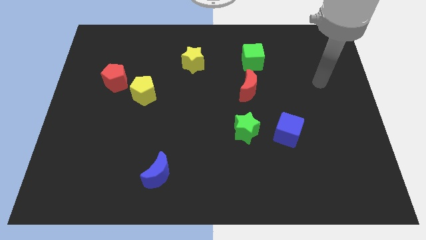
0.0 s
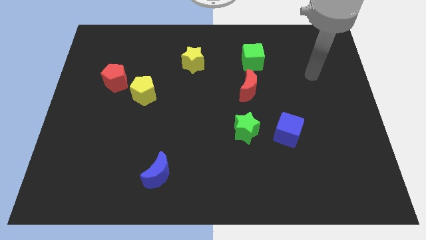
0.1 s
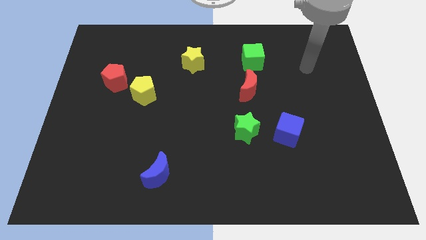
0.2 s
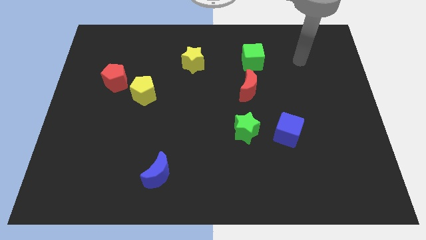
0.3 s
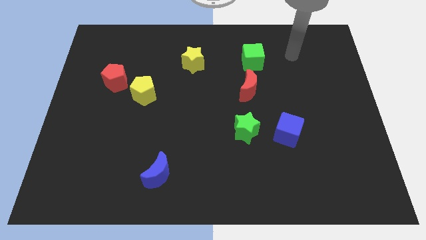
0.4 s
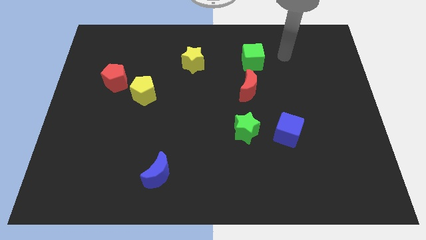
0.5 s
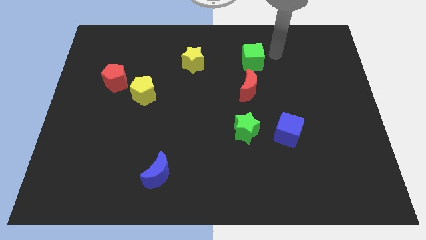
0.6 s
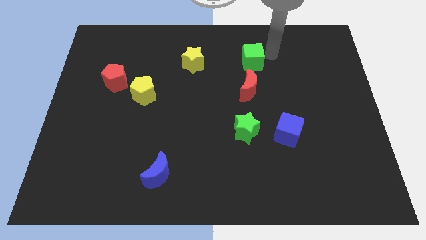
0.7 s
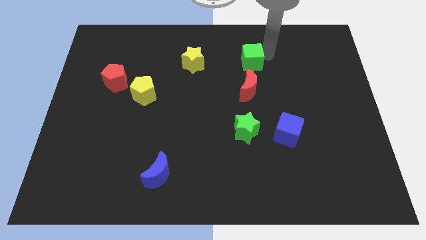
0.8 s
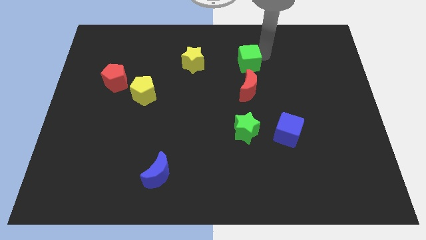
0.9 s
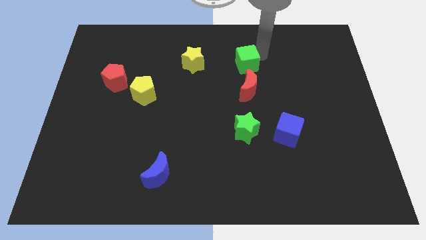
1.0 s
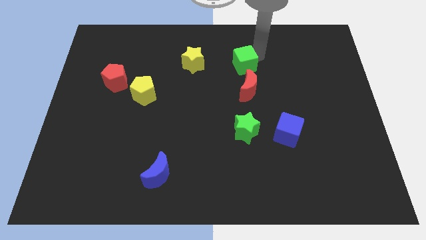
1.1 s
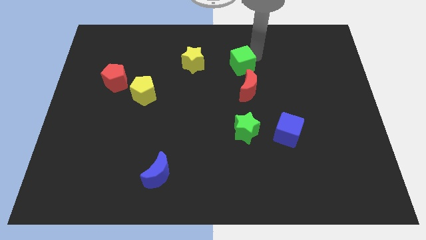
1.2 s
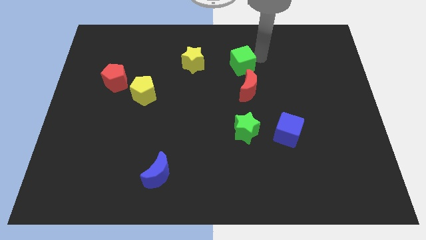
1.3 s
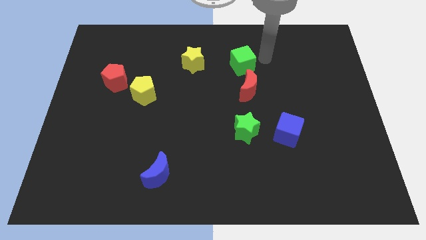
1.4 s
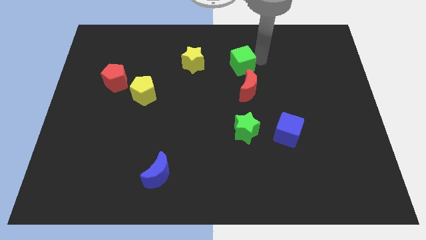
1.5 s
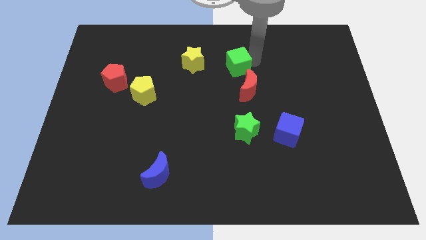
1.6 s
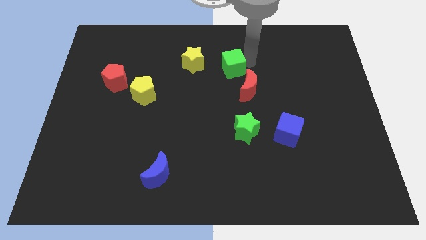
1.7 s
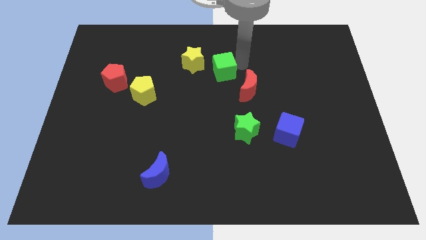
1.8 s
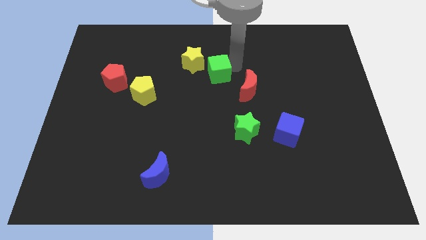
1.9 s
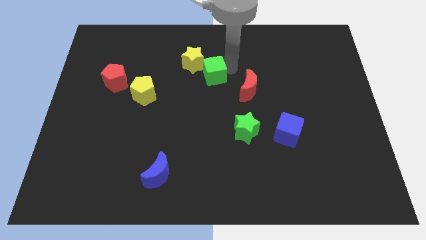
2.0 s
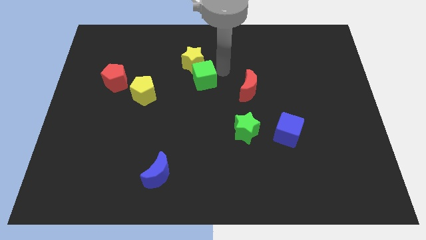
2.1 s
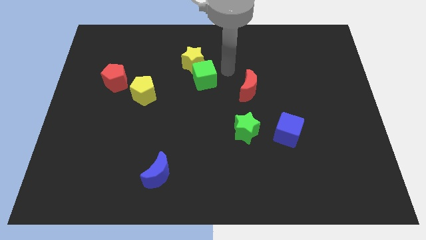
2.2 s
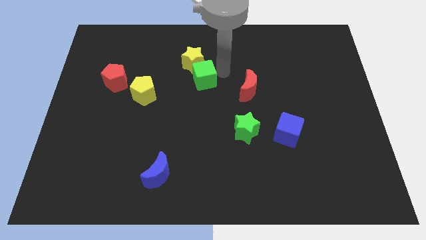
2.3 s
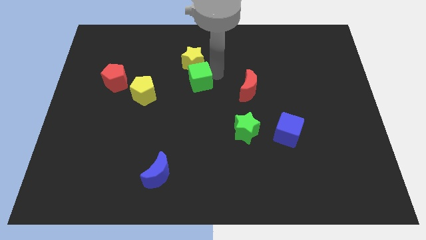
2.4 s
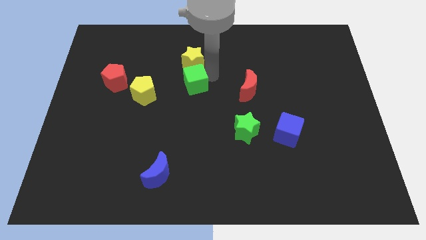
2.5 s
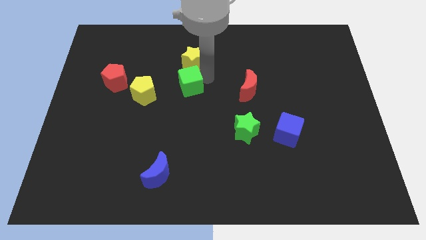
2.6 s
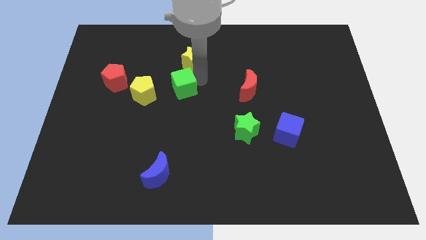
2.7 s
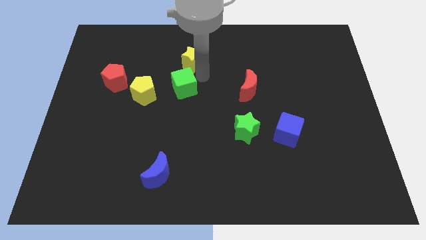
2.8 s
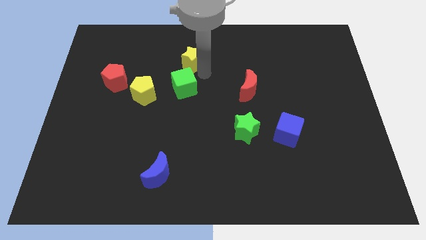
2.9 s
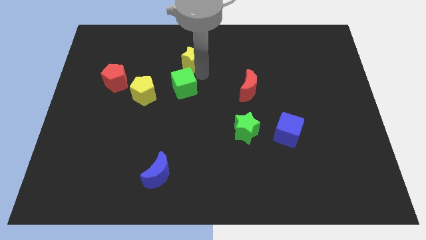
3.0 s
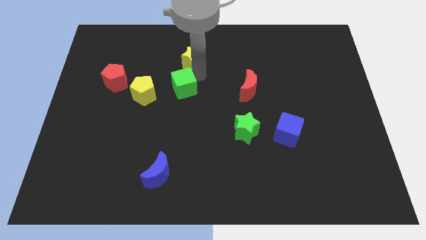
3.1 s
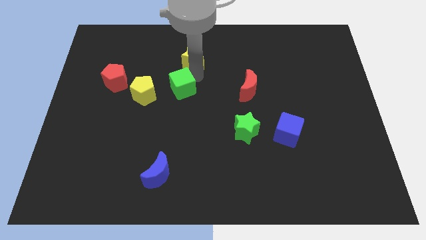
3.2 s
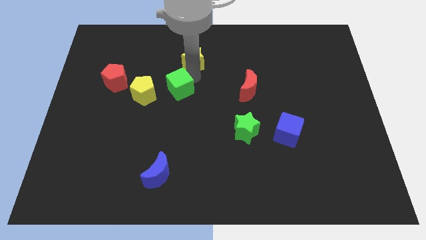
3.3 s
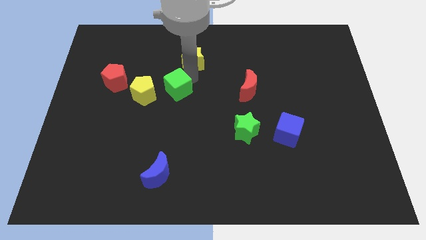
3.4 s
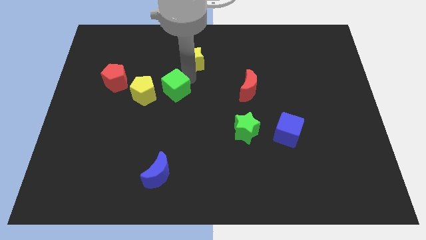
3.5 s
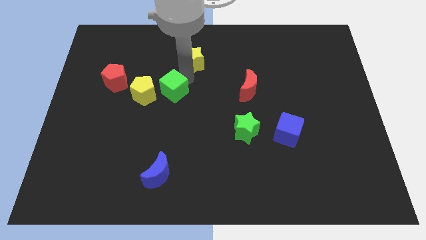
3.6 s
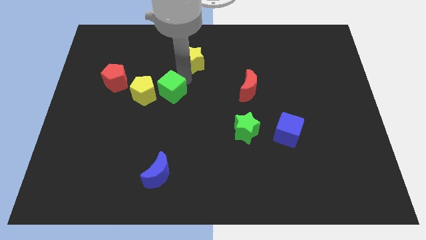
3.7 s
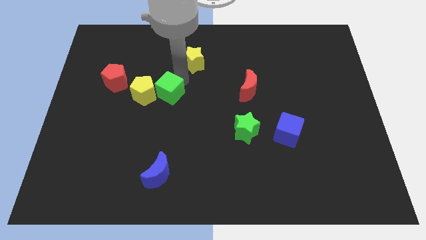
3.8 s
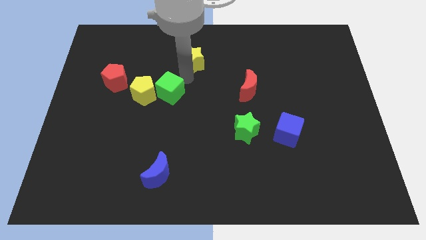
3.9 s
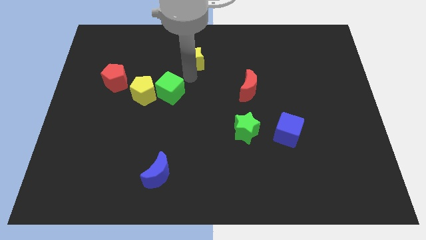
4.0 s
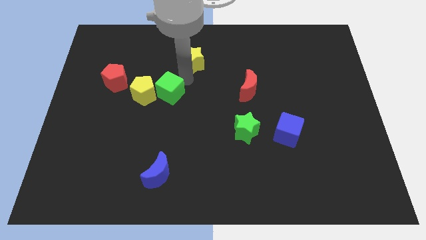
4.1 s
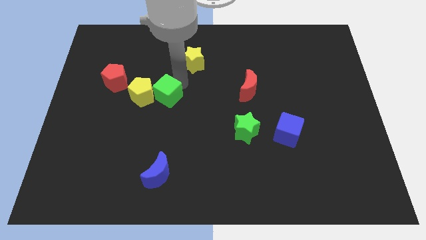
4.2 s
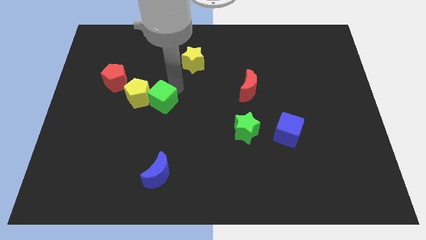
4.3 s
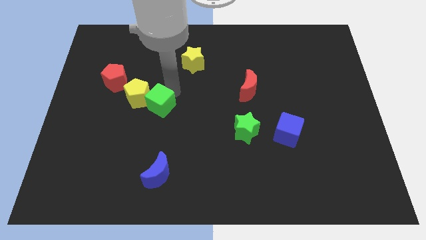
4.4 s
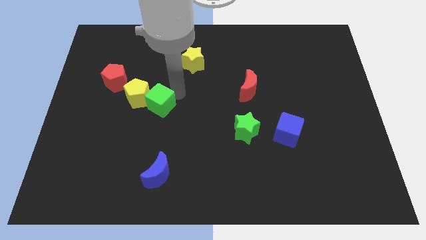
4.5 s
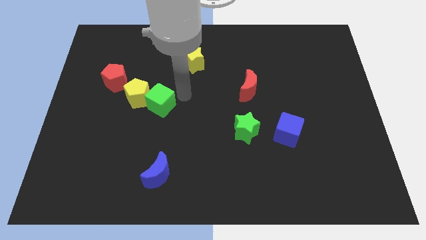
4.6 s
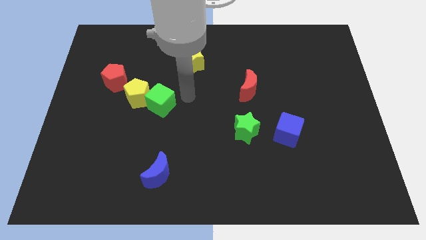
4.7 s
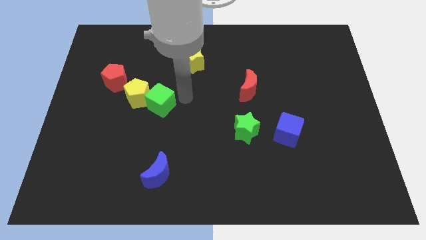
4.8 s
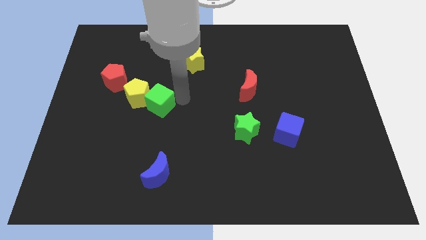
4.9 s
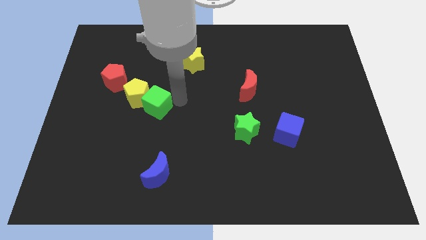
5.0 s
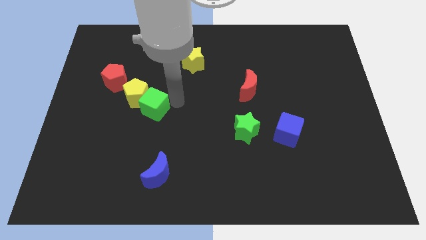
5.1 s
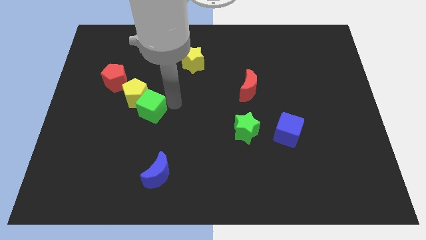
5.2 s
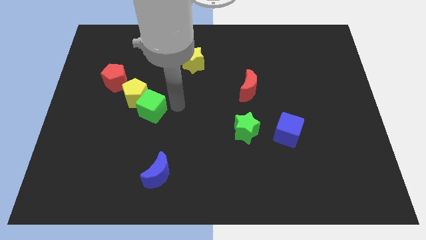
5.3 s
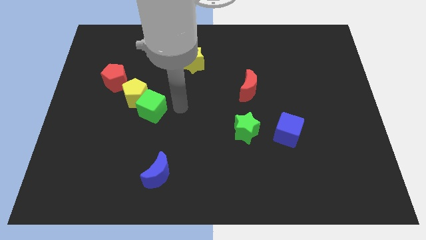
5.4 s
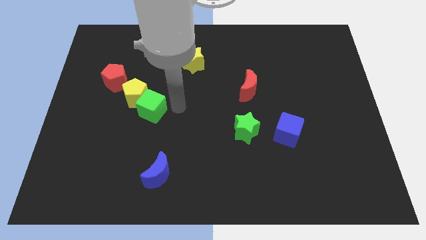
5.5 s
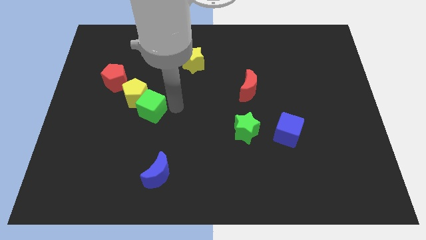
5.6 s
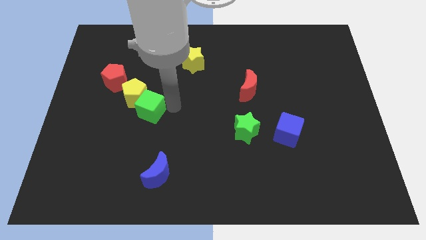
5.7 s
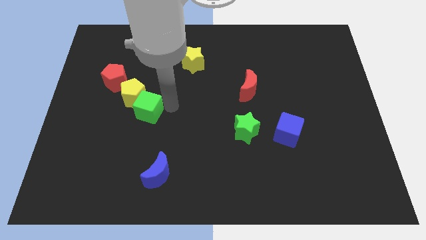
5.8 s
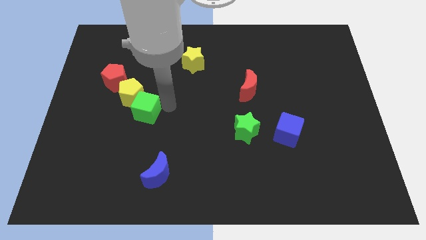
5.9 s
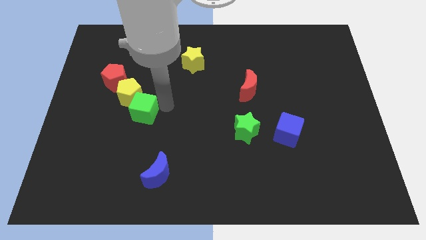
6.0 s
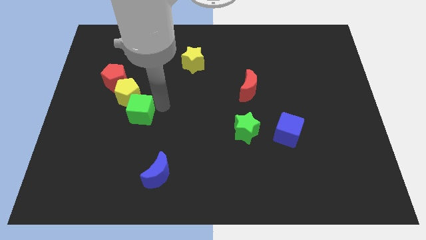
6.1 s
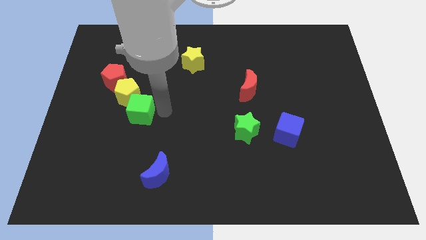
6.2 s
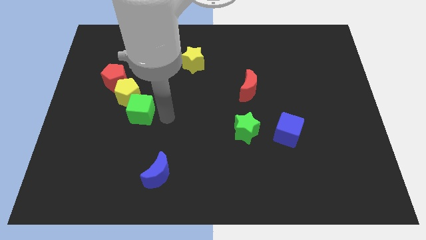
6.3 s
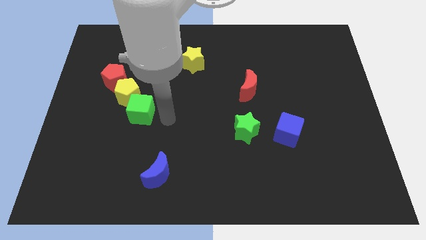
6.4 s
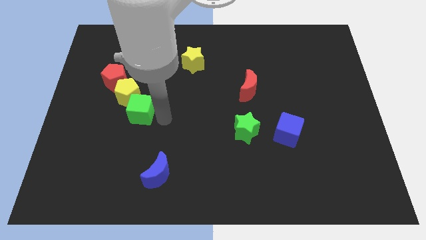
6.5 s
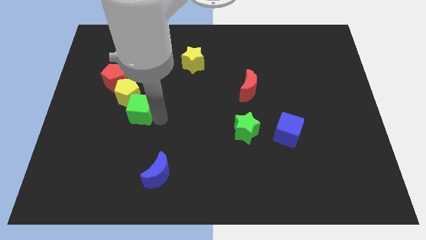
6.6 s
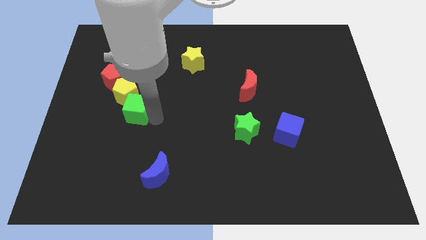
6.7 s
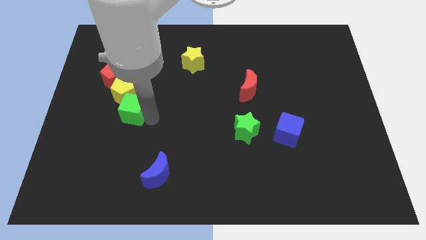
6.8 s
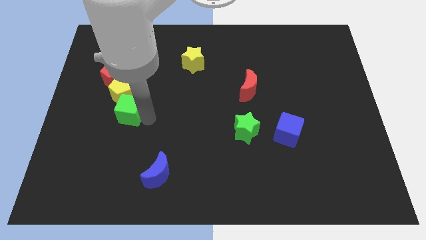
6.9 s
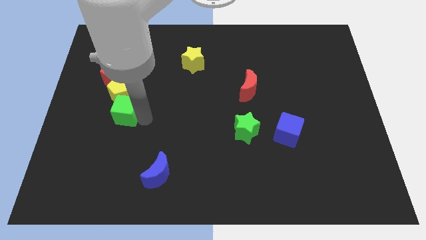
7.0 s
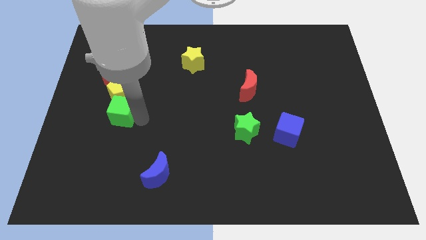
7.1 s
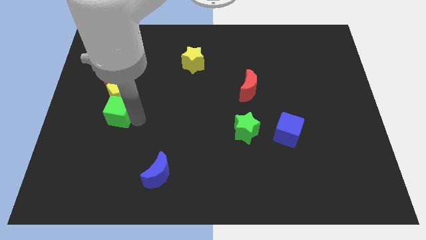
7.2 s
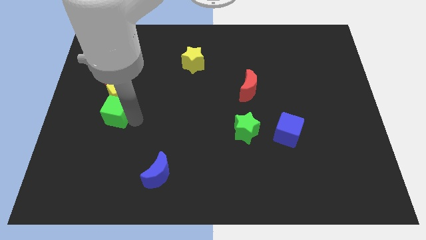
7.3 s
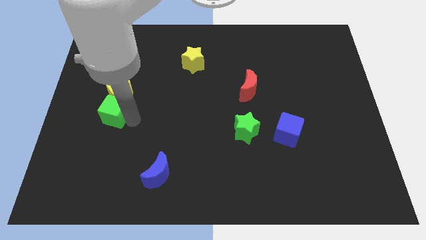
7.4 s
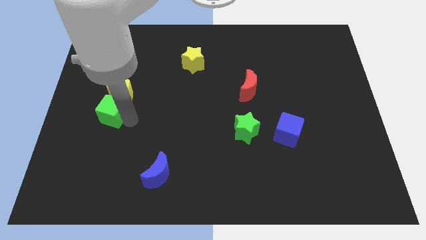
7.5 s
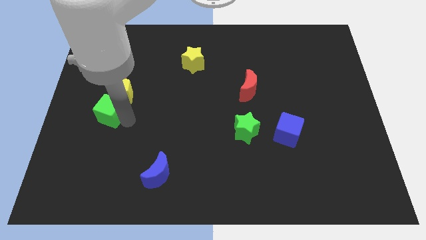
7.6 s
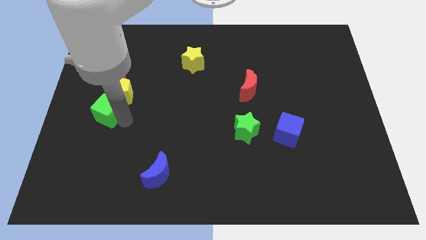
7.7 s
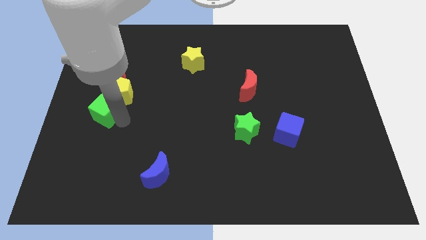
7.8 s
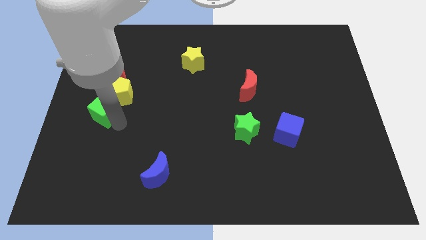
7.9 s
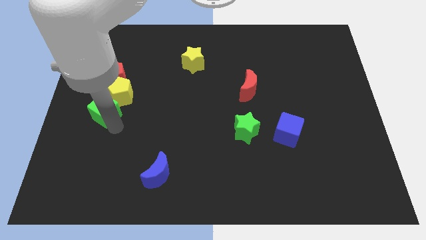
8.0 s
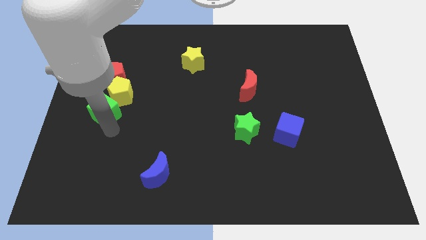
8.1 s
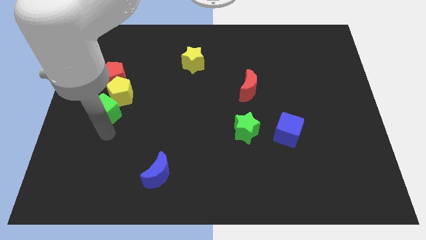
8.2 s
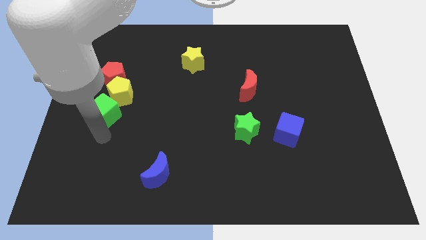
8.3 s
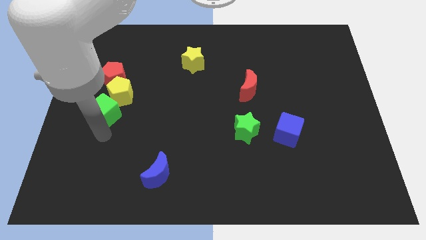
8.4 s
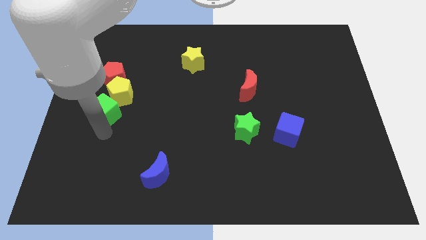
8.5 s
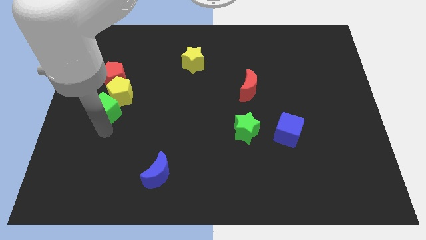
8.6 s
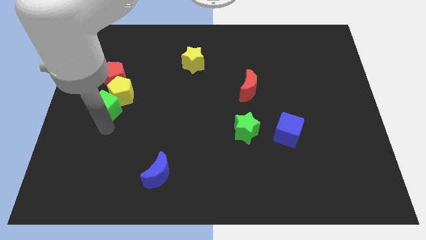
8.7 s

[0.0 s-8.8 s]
move the green cube to the left side
